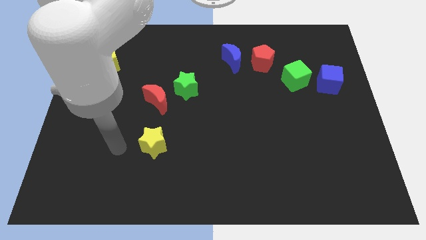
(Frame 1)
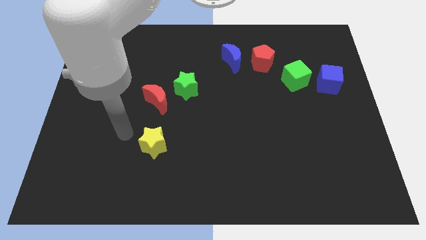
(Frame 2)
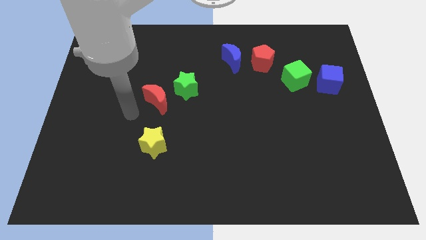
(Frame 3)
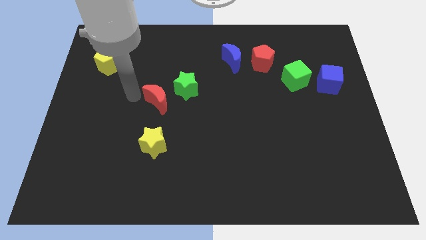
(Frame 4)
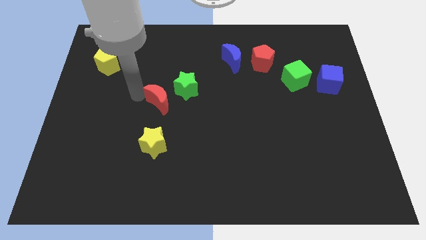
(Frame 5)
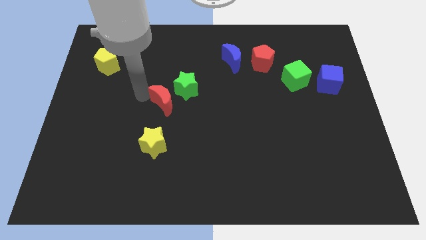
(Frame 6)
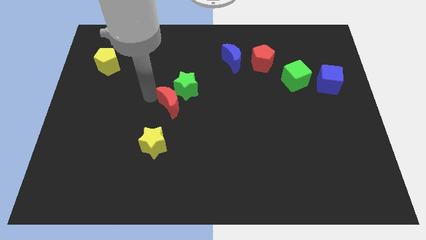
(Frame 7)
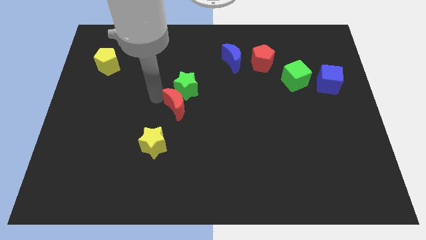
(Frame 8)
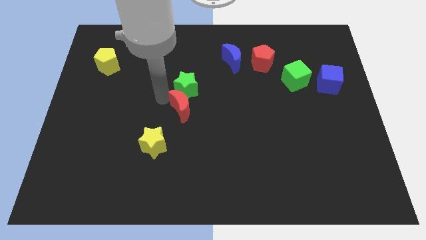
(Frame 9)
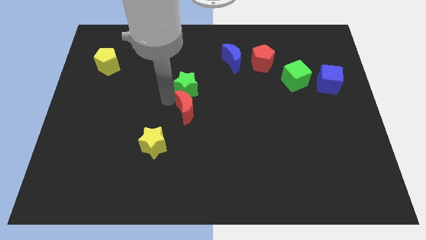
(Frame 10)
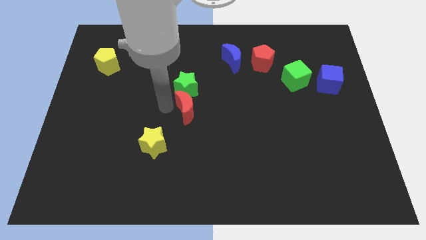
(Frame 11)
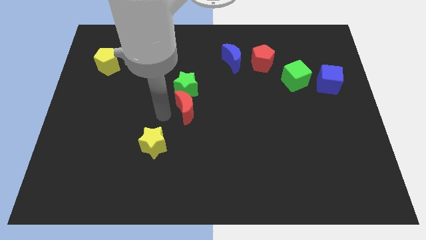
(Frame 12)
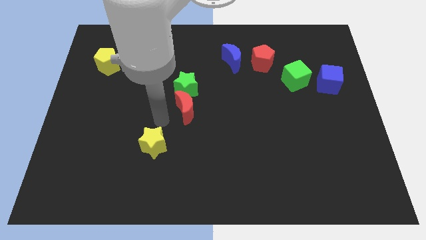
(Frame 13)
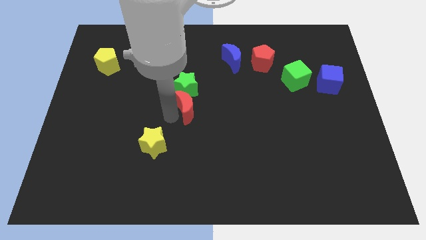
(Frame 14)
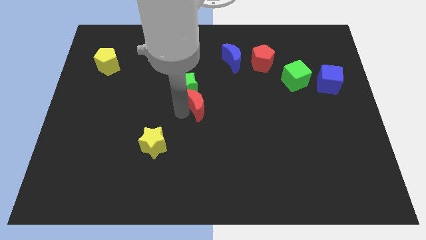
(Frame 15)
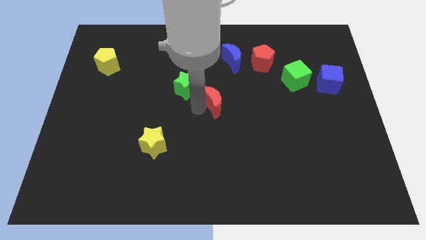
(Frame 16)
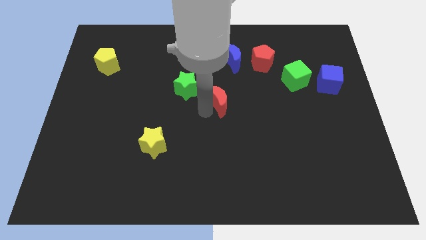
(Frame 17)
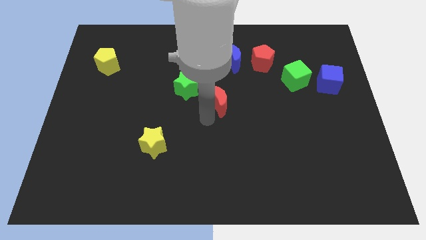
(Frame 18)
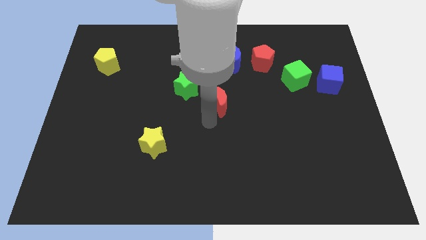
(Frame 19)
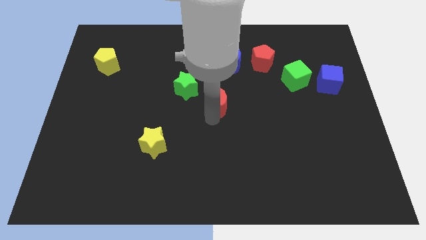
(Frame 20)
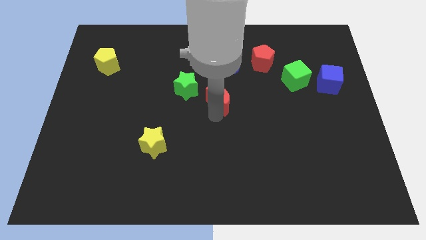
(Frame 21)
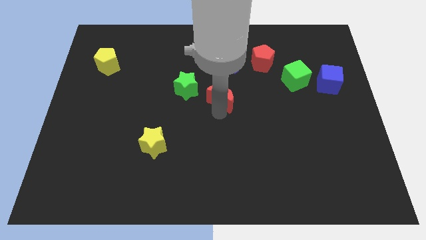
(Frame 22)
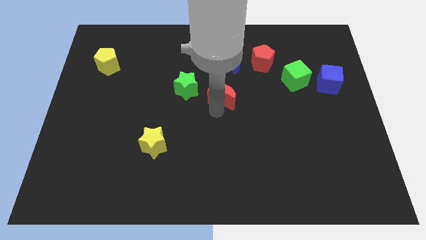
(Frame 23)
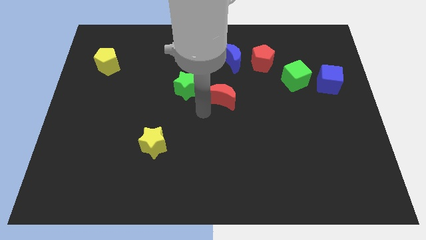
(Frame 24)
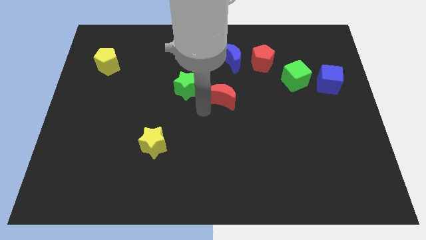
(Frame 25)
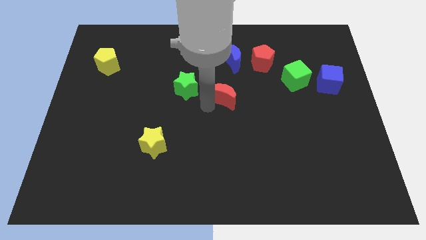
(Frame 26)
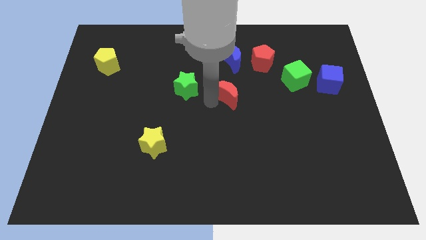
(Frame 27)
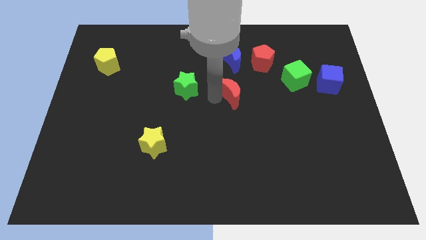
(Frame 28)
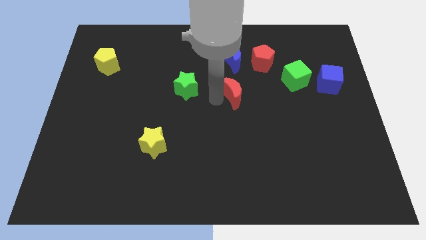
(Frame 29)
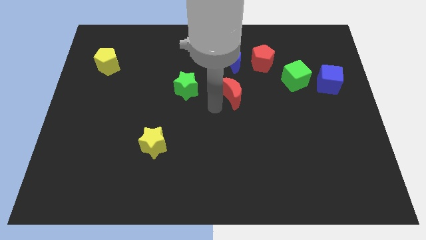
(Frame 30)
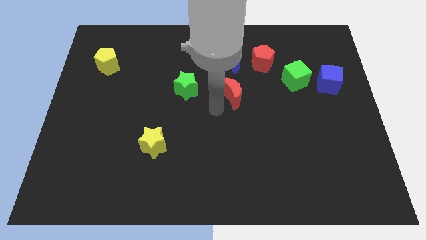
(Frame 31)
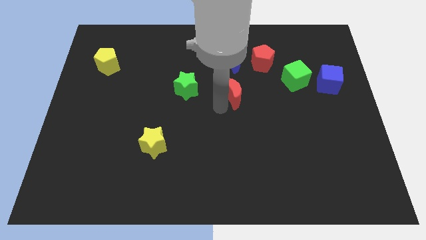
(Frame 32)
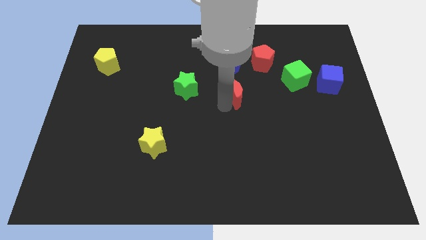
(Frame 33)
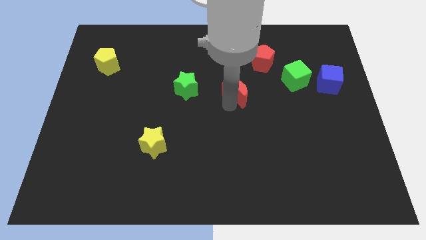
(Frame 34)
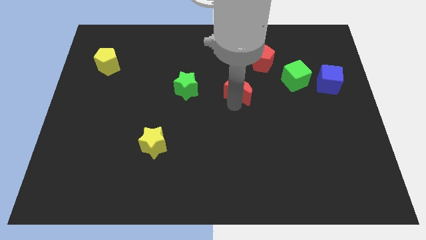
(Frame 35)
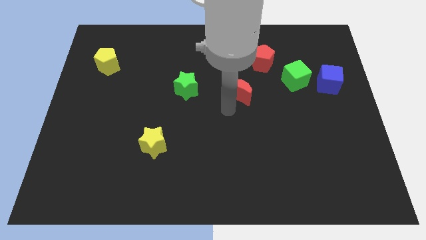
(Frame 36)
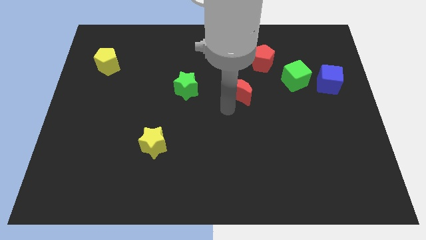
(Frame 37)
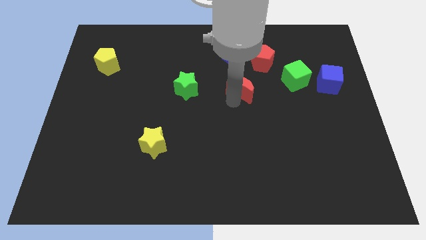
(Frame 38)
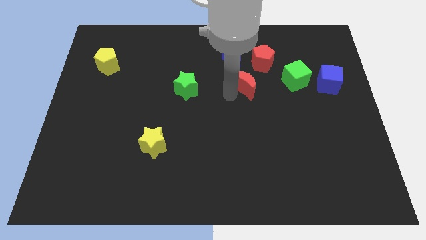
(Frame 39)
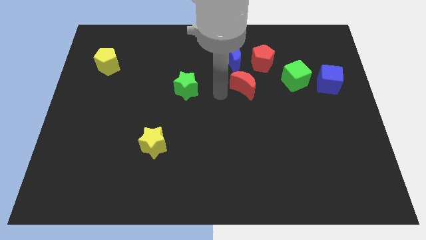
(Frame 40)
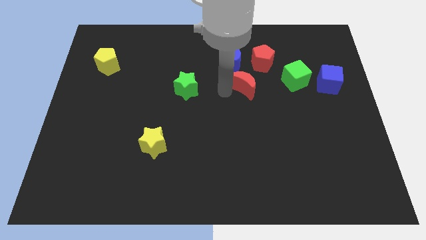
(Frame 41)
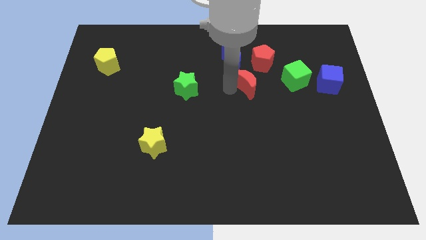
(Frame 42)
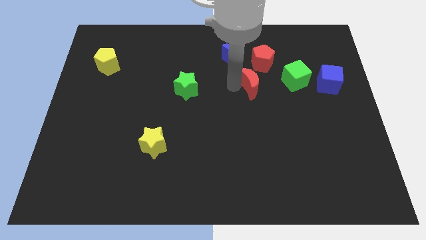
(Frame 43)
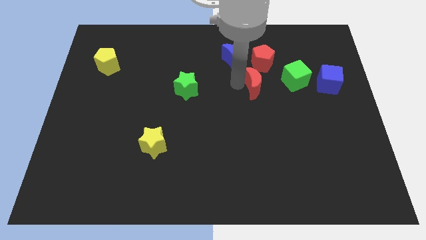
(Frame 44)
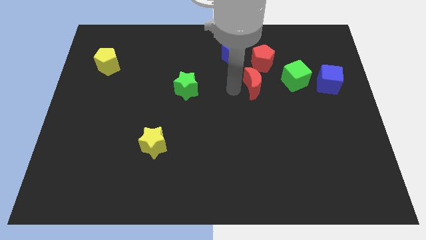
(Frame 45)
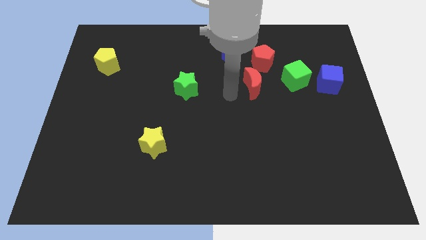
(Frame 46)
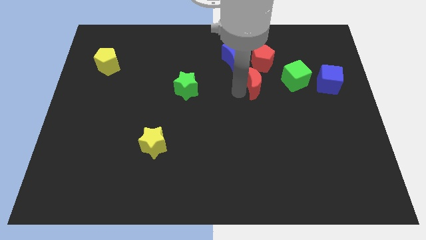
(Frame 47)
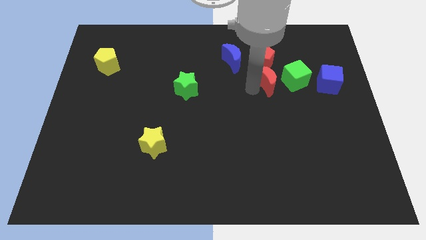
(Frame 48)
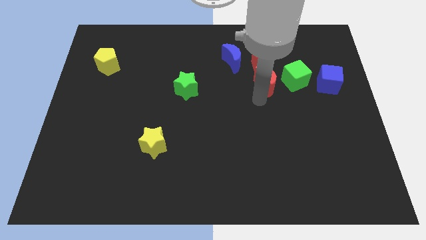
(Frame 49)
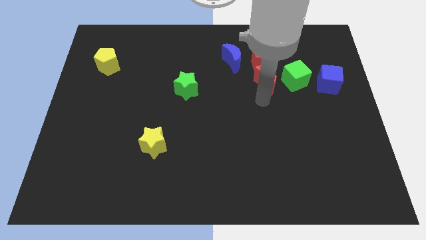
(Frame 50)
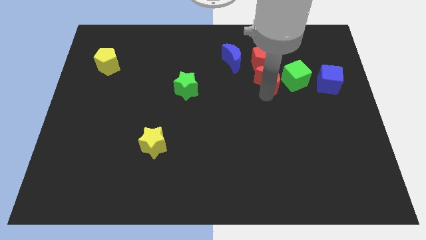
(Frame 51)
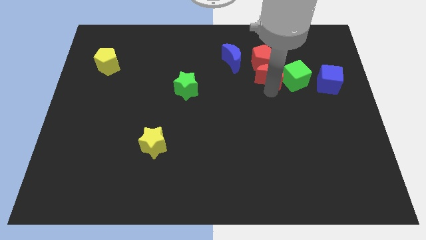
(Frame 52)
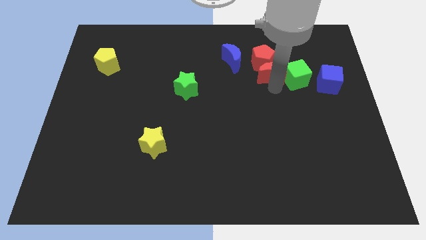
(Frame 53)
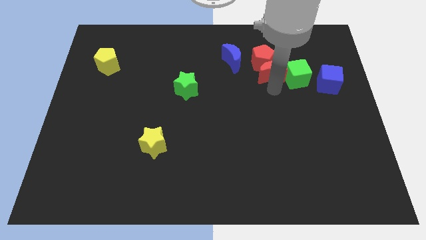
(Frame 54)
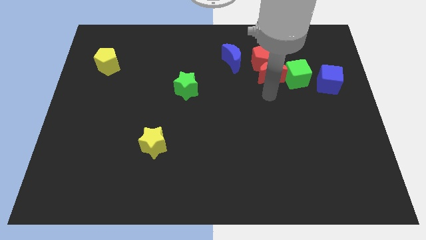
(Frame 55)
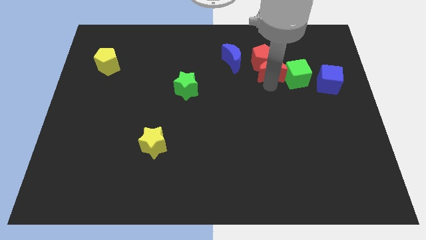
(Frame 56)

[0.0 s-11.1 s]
put the red moon just right of the blue moon

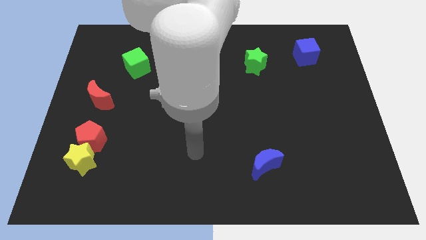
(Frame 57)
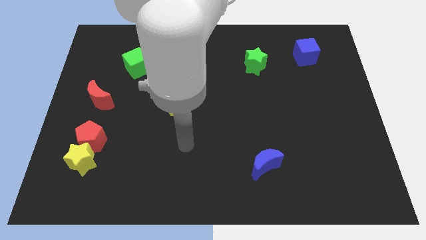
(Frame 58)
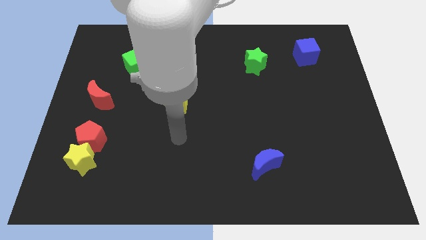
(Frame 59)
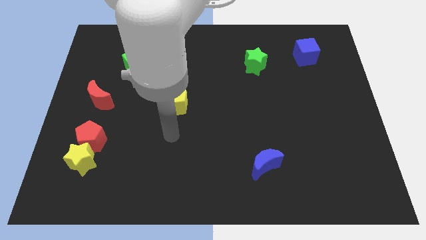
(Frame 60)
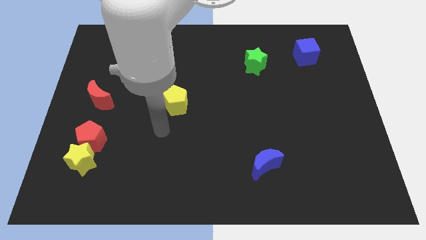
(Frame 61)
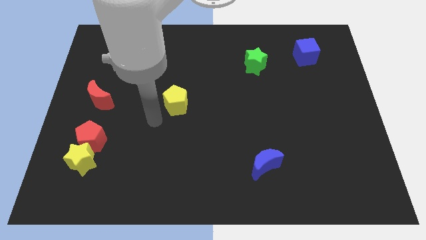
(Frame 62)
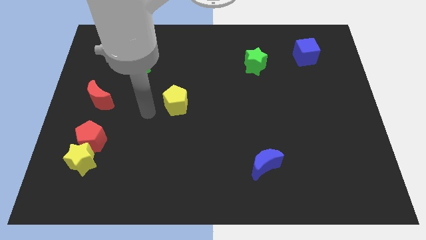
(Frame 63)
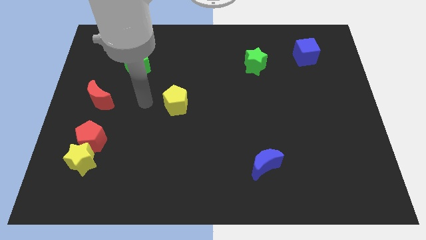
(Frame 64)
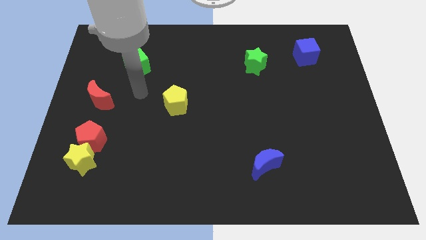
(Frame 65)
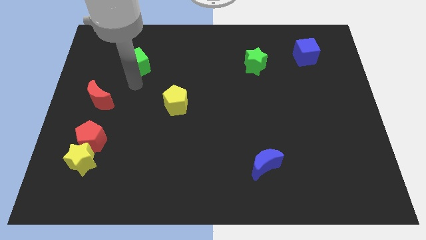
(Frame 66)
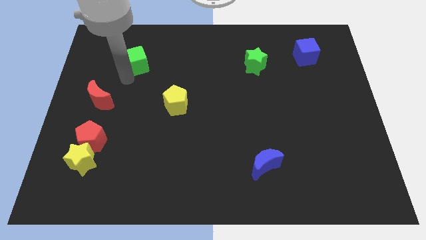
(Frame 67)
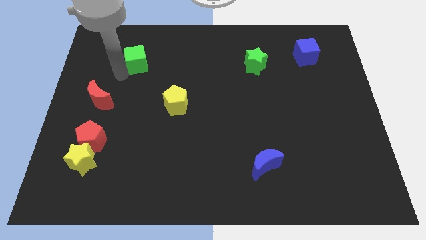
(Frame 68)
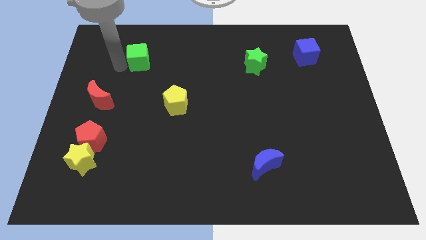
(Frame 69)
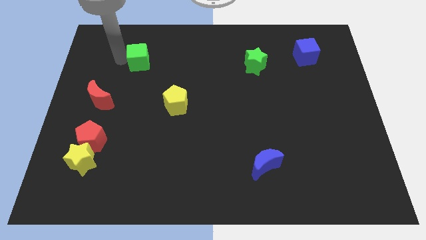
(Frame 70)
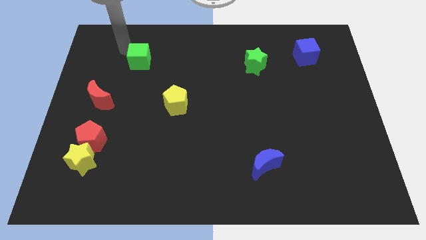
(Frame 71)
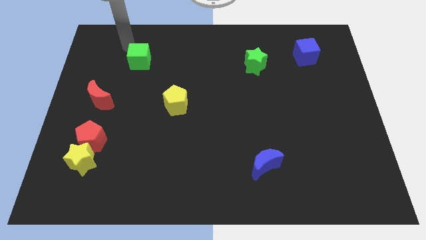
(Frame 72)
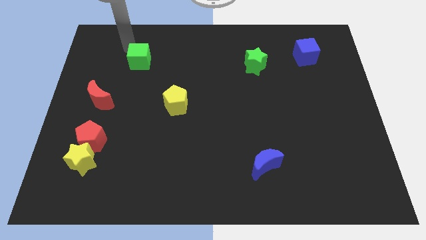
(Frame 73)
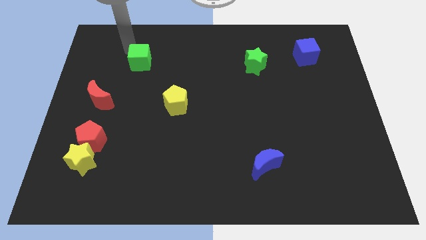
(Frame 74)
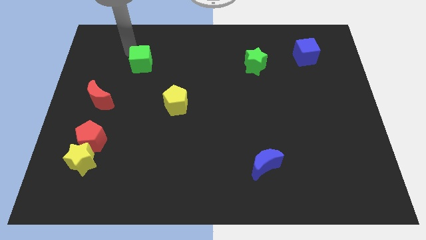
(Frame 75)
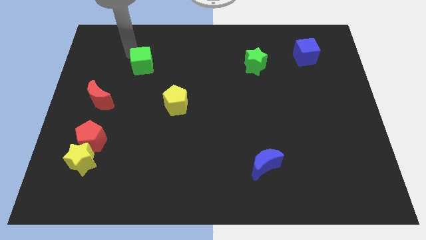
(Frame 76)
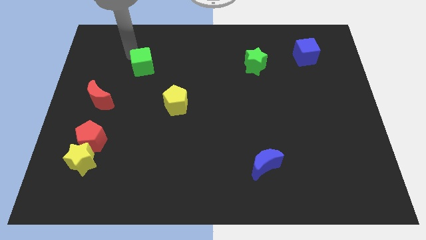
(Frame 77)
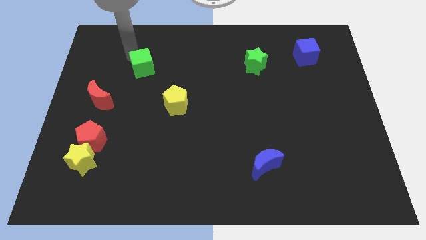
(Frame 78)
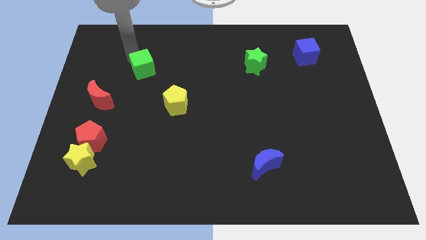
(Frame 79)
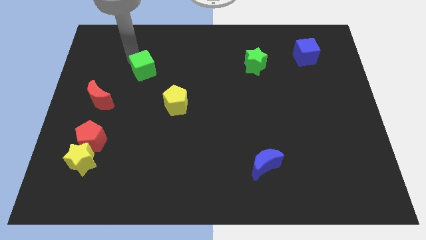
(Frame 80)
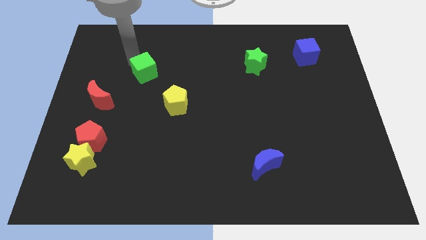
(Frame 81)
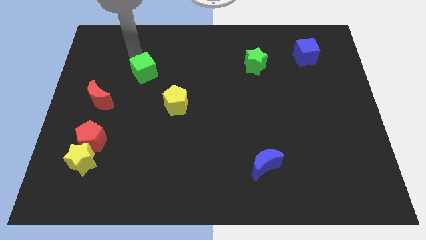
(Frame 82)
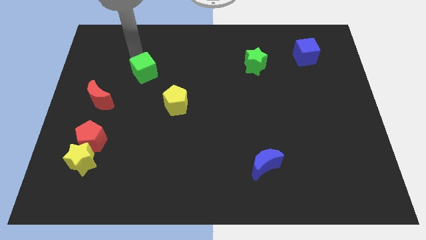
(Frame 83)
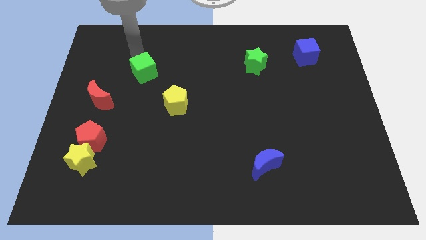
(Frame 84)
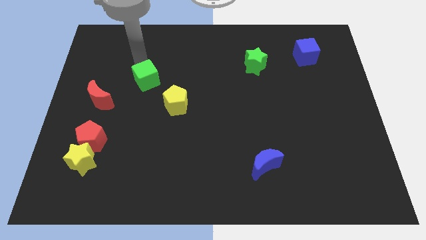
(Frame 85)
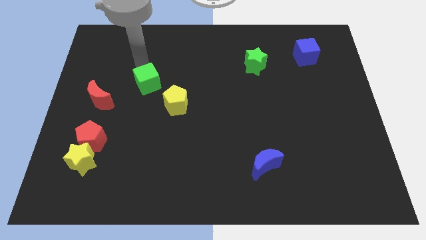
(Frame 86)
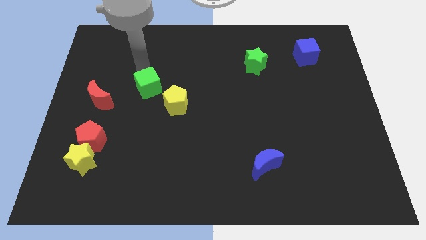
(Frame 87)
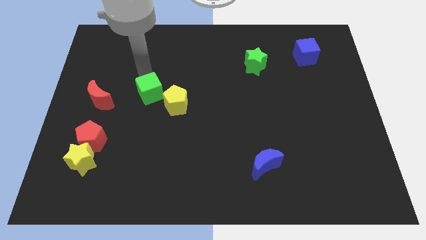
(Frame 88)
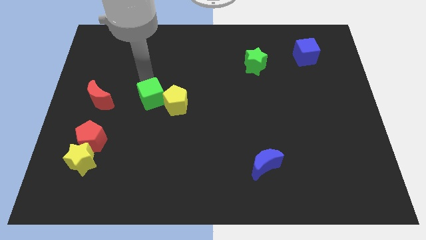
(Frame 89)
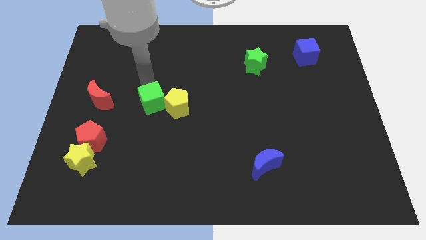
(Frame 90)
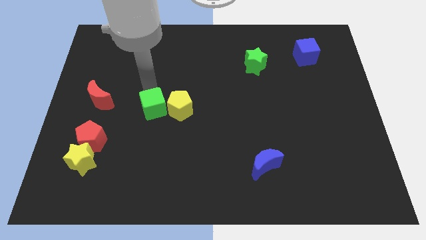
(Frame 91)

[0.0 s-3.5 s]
slide the green cube diagonally down and to the left of the yellow pentagon
